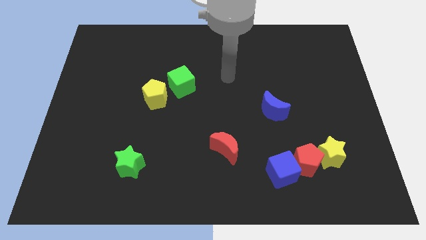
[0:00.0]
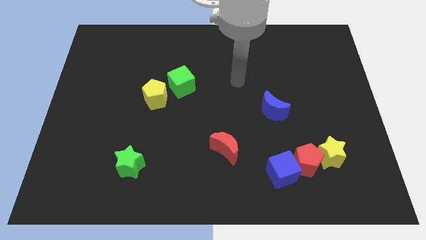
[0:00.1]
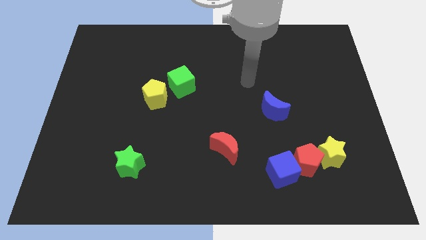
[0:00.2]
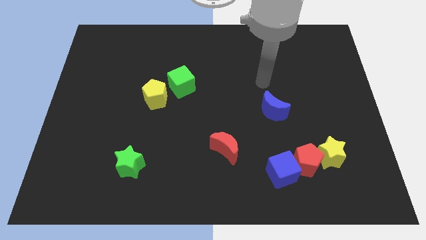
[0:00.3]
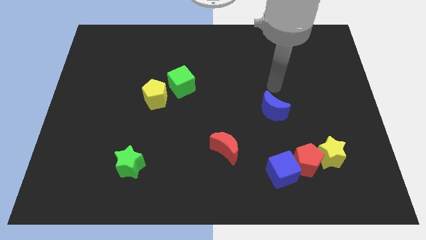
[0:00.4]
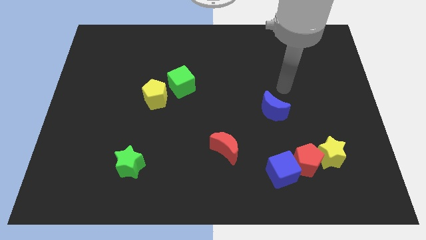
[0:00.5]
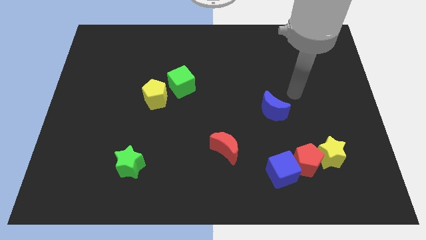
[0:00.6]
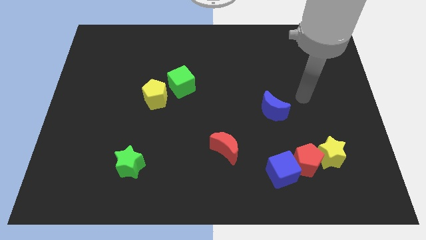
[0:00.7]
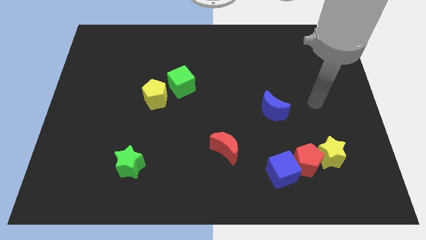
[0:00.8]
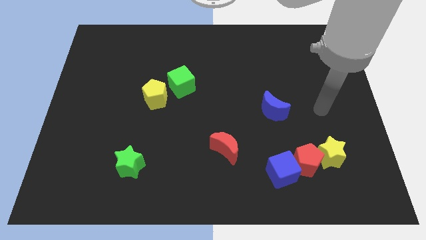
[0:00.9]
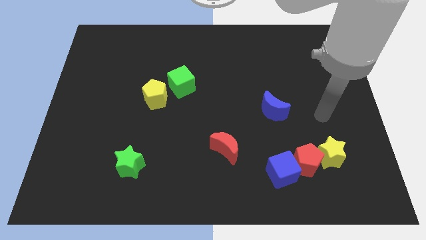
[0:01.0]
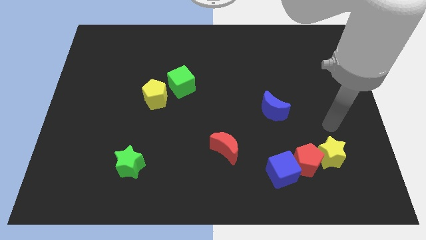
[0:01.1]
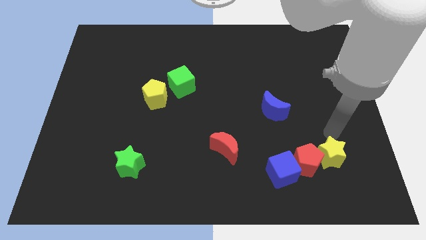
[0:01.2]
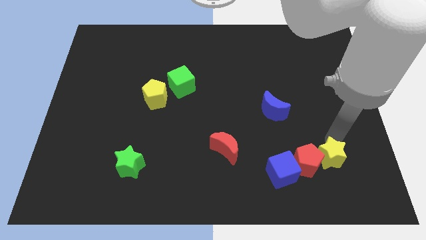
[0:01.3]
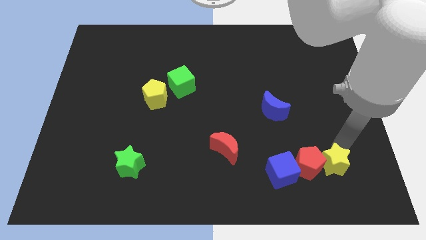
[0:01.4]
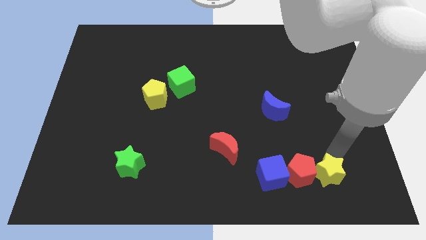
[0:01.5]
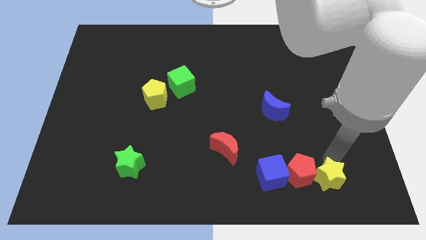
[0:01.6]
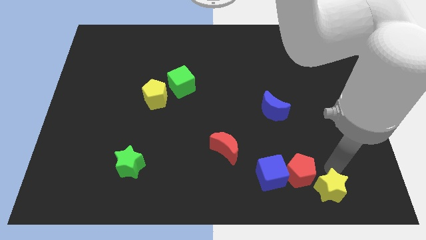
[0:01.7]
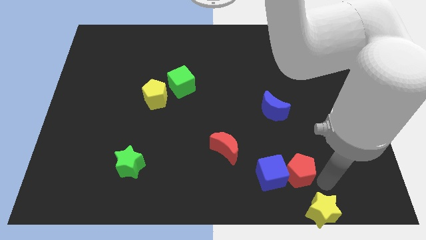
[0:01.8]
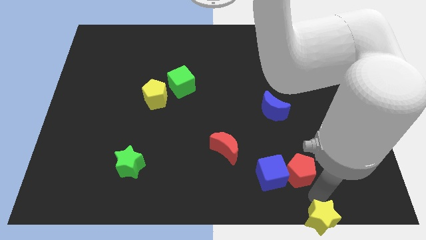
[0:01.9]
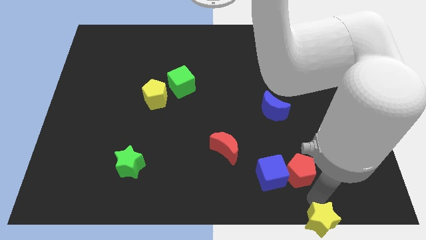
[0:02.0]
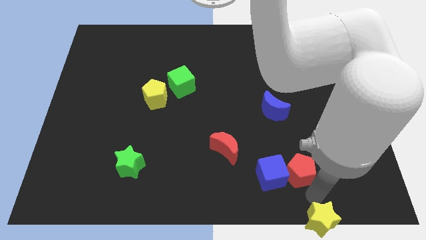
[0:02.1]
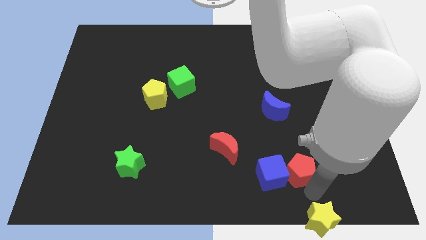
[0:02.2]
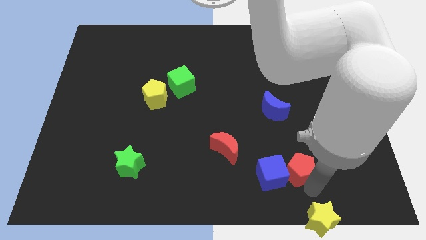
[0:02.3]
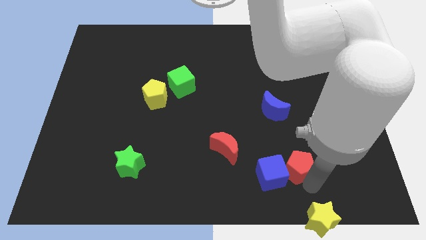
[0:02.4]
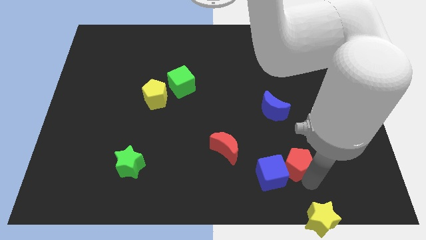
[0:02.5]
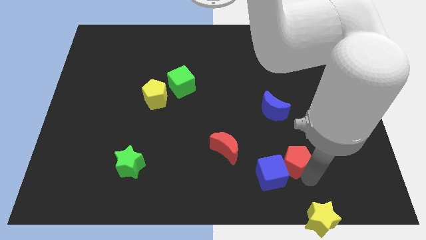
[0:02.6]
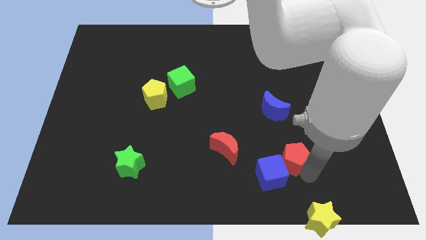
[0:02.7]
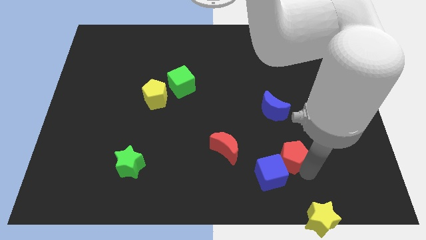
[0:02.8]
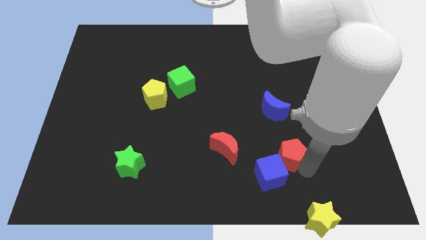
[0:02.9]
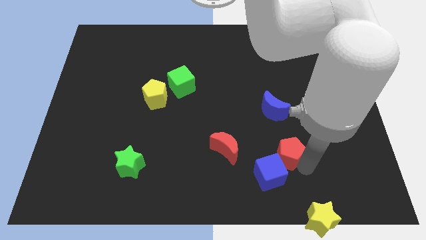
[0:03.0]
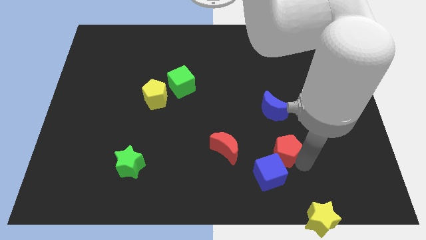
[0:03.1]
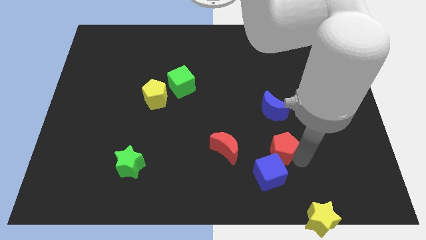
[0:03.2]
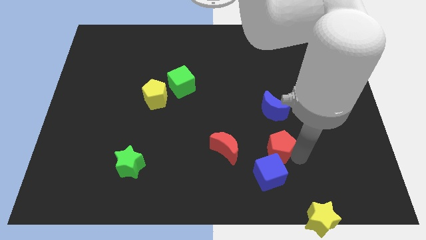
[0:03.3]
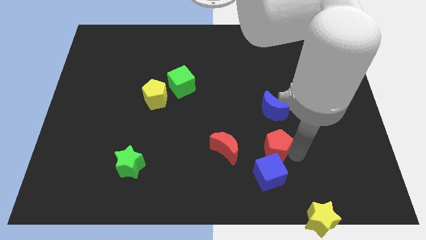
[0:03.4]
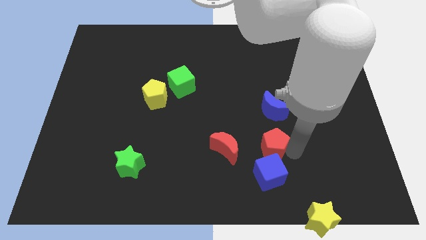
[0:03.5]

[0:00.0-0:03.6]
slide the red pentagon slightly up and then to the left

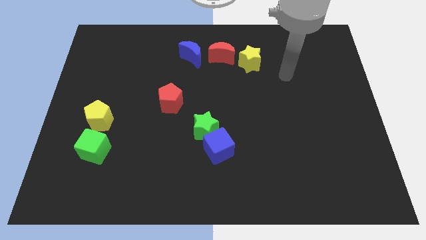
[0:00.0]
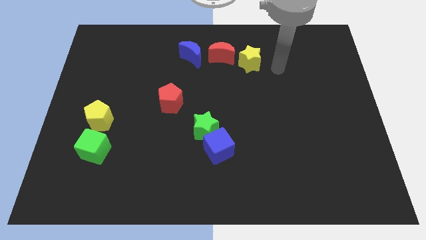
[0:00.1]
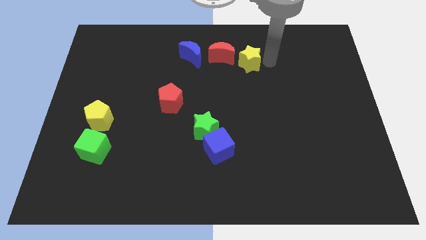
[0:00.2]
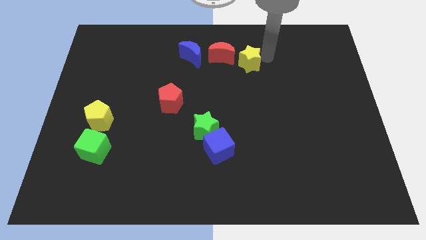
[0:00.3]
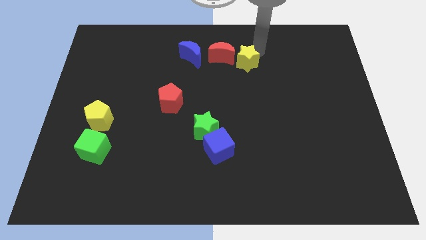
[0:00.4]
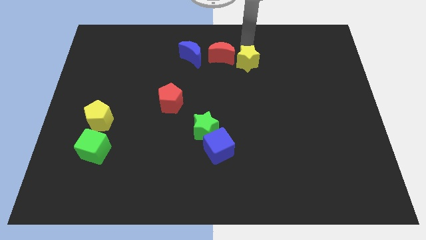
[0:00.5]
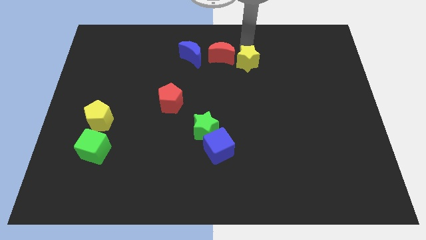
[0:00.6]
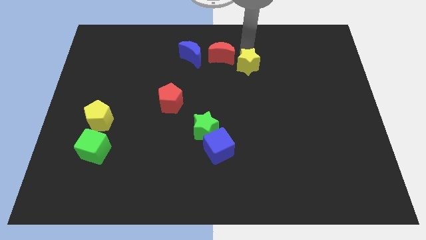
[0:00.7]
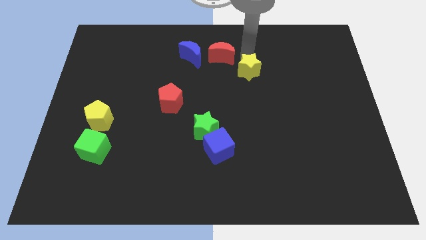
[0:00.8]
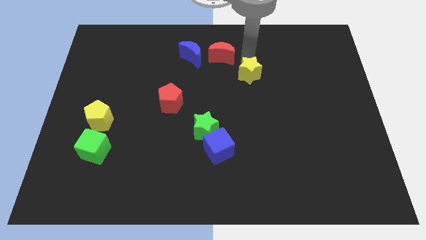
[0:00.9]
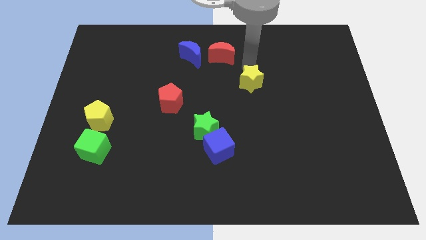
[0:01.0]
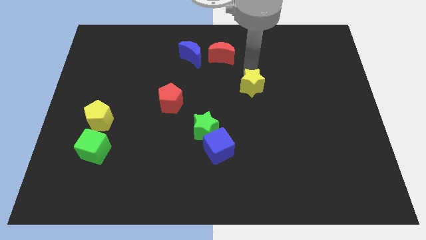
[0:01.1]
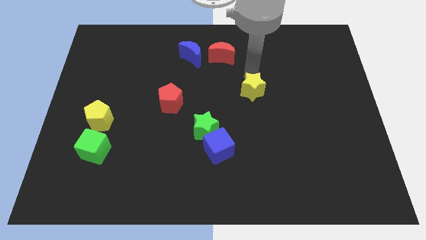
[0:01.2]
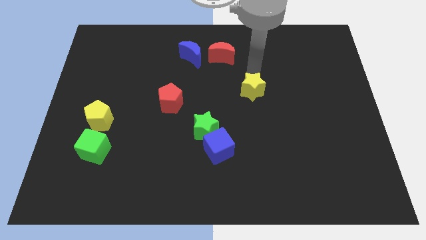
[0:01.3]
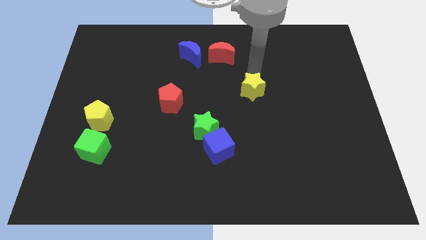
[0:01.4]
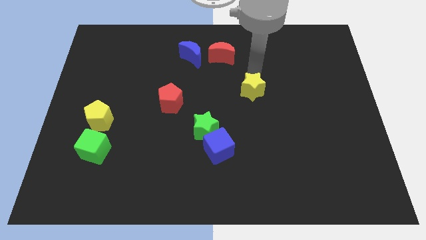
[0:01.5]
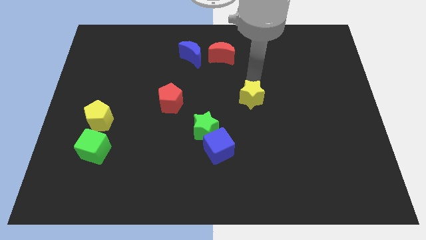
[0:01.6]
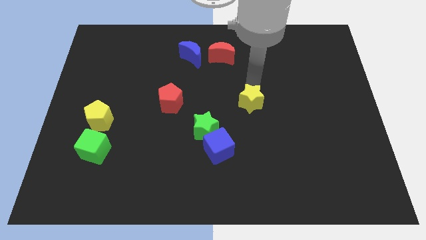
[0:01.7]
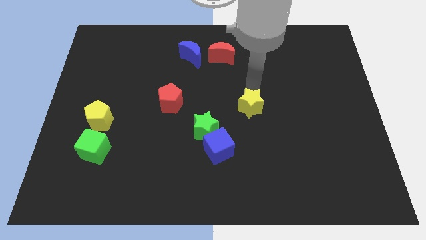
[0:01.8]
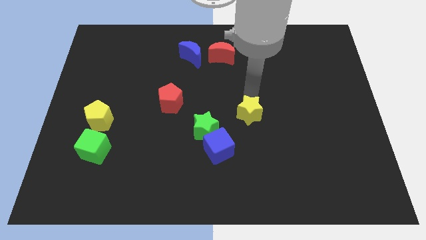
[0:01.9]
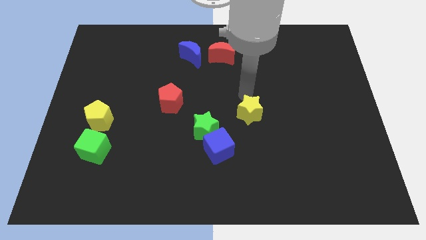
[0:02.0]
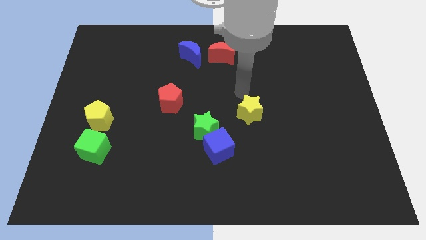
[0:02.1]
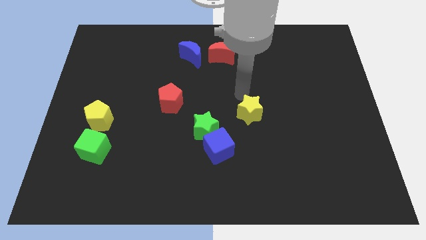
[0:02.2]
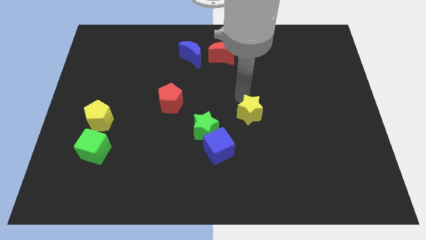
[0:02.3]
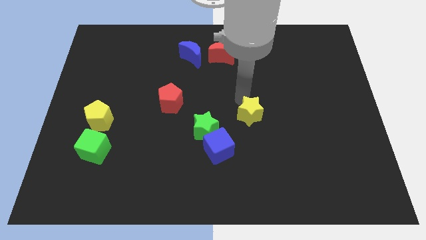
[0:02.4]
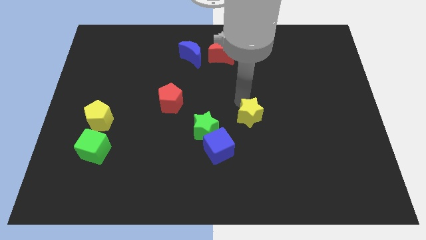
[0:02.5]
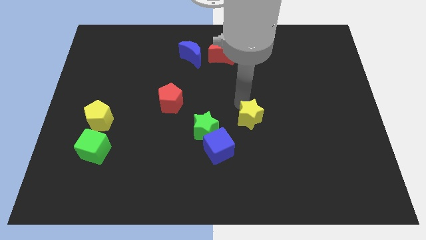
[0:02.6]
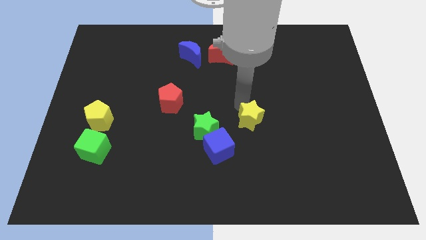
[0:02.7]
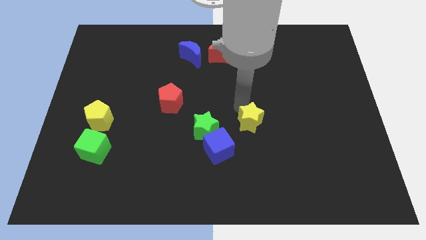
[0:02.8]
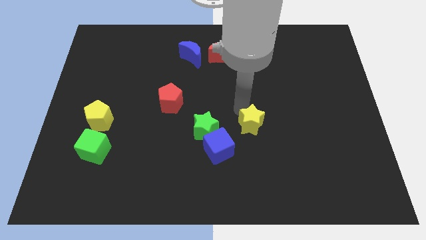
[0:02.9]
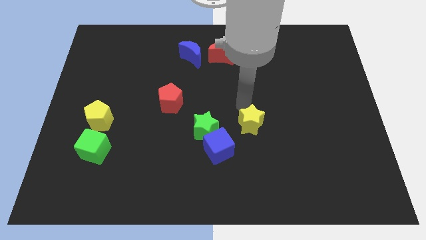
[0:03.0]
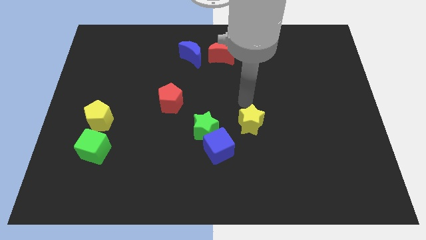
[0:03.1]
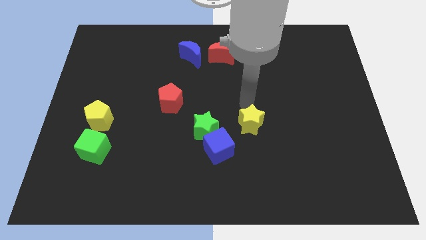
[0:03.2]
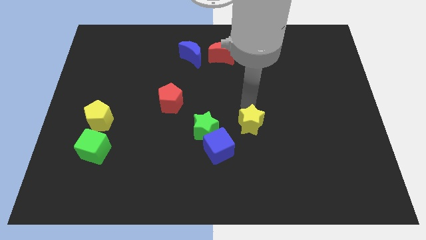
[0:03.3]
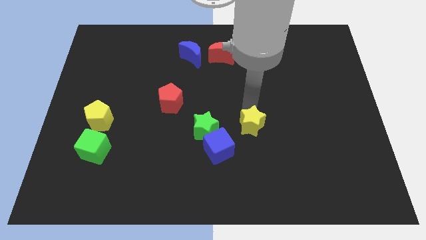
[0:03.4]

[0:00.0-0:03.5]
move the yellow star down

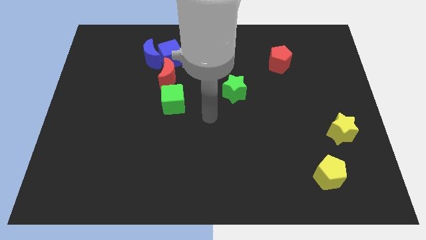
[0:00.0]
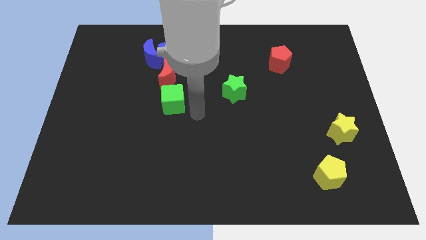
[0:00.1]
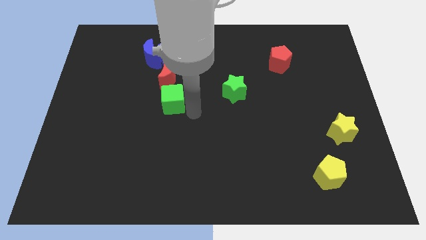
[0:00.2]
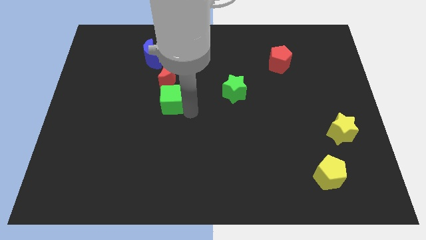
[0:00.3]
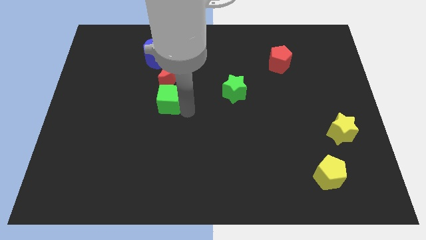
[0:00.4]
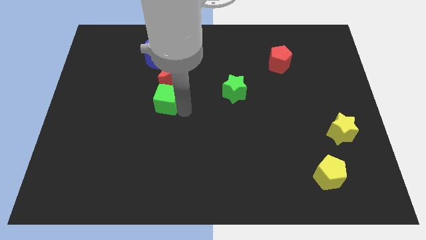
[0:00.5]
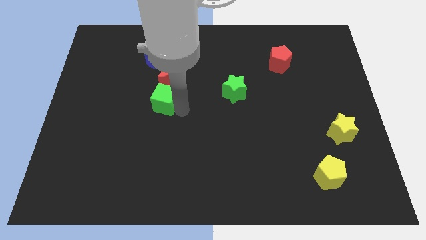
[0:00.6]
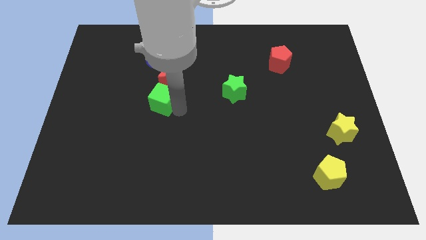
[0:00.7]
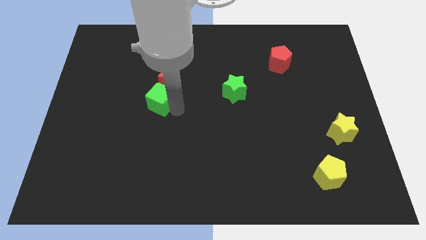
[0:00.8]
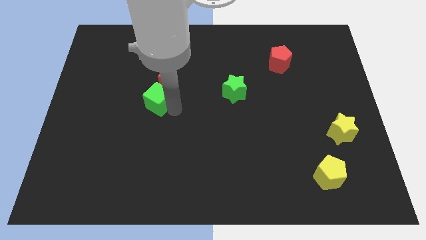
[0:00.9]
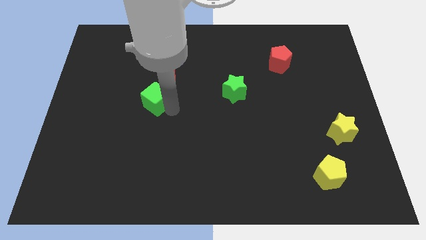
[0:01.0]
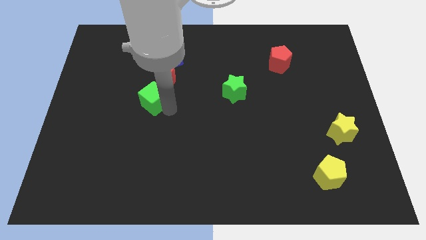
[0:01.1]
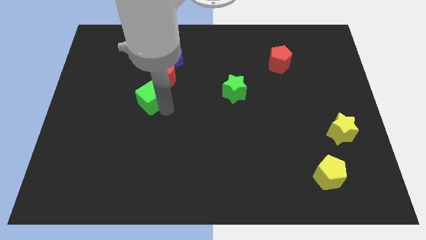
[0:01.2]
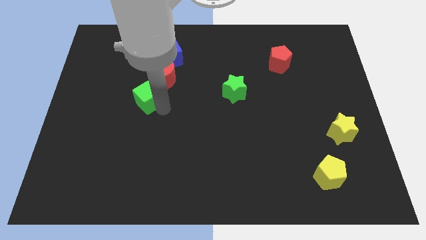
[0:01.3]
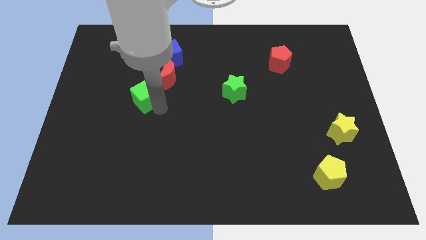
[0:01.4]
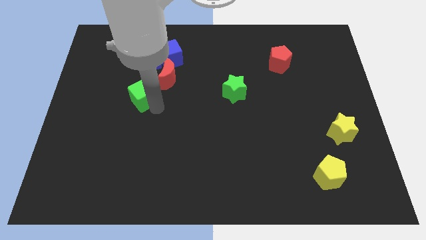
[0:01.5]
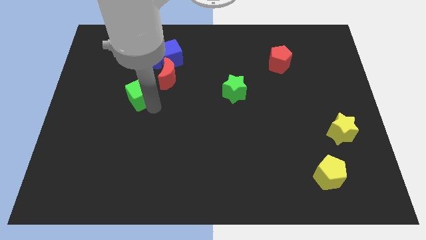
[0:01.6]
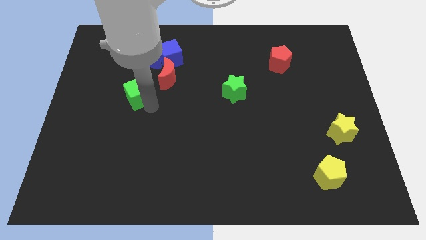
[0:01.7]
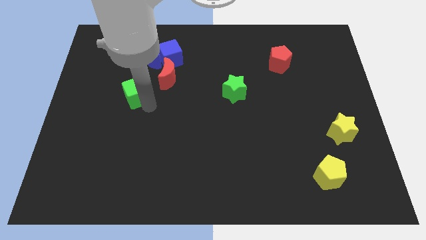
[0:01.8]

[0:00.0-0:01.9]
slide the green cube diagonally up and to the left a bit
